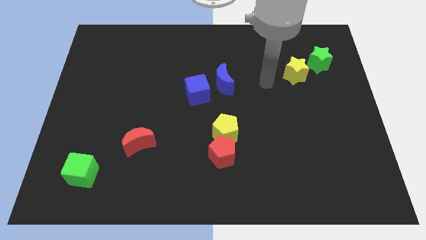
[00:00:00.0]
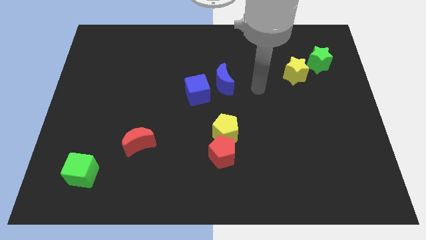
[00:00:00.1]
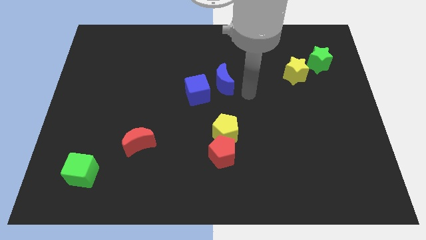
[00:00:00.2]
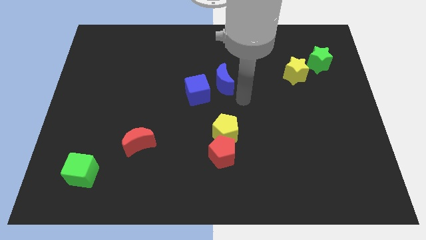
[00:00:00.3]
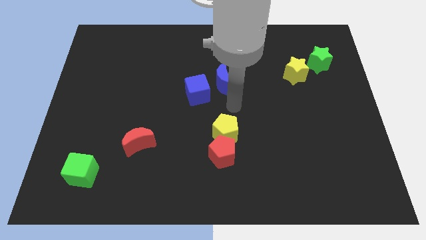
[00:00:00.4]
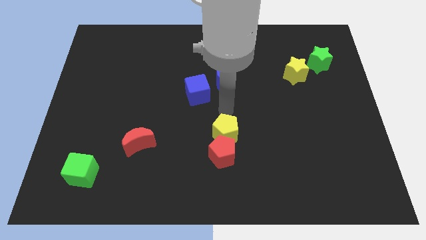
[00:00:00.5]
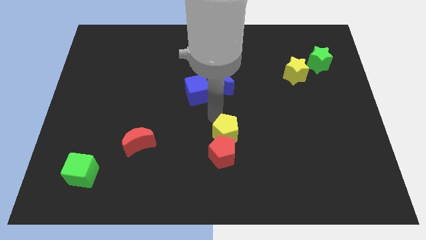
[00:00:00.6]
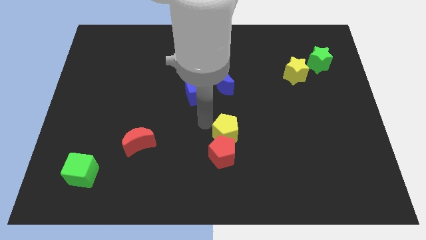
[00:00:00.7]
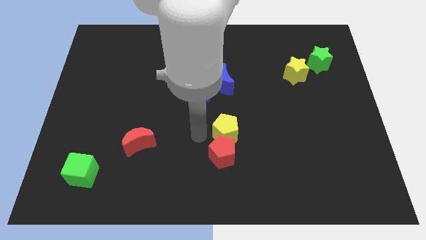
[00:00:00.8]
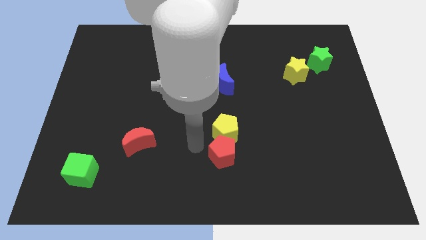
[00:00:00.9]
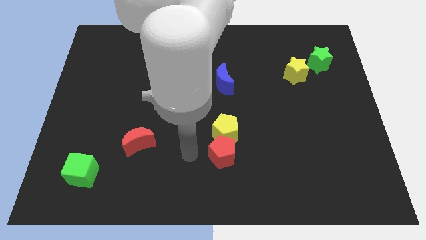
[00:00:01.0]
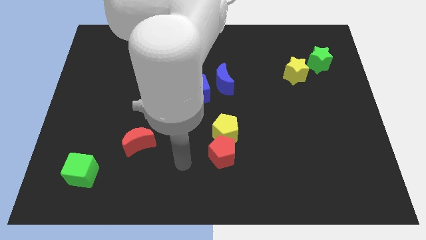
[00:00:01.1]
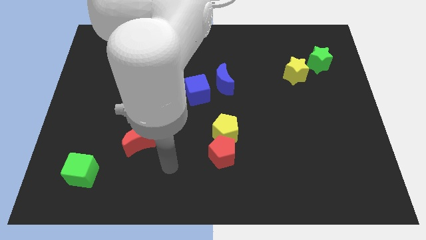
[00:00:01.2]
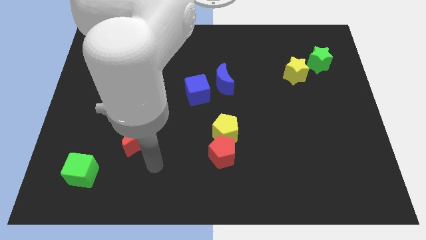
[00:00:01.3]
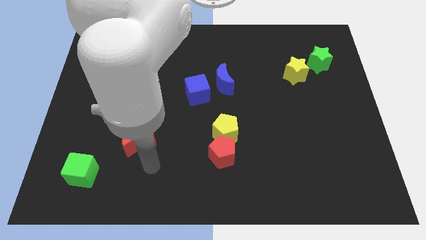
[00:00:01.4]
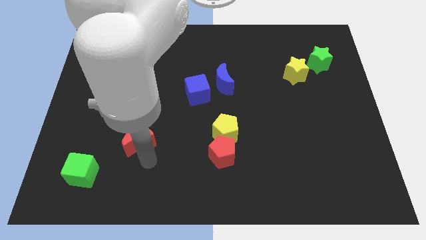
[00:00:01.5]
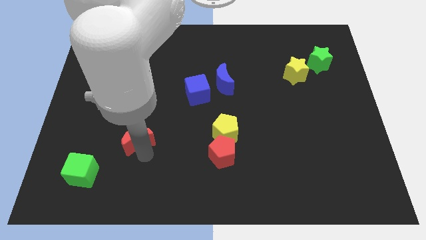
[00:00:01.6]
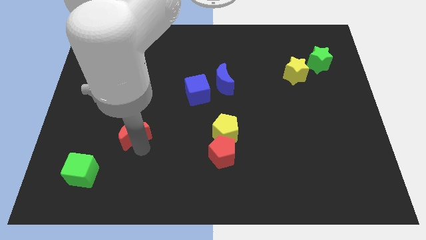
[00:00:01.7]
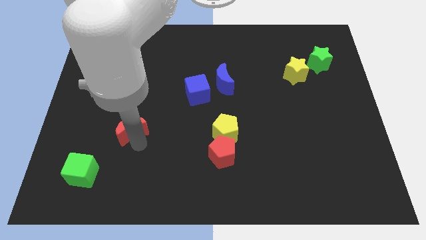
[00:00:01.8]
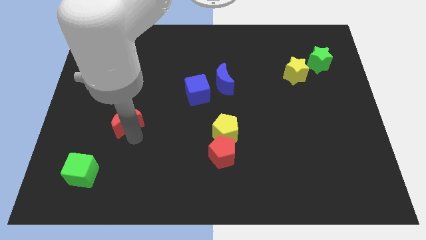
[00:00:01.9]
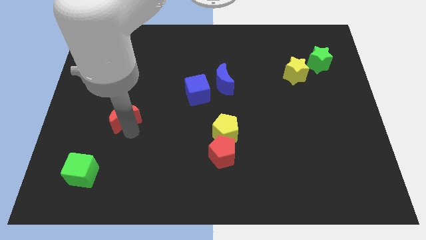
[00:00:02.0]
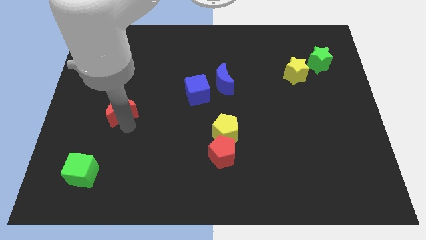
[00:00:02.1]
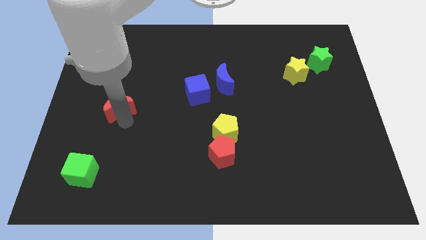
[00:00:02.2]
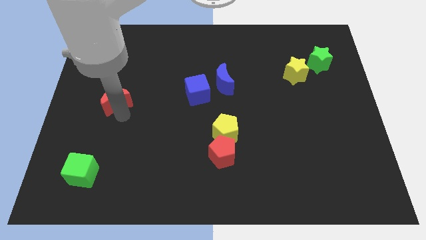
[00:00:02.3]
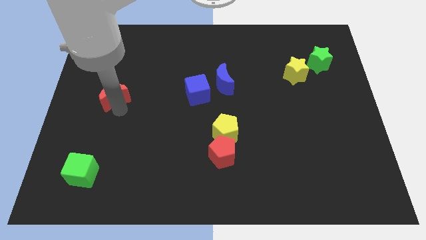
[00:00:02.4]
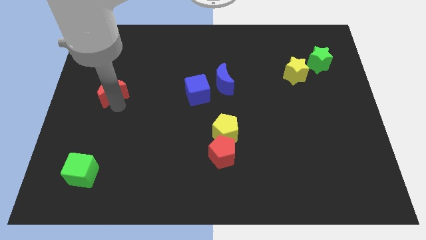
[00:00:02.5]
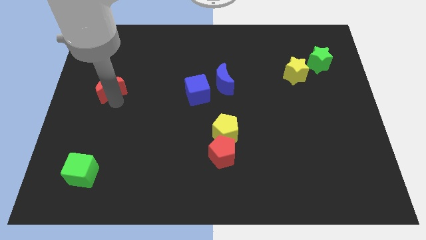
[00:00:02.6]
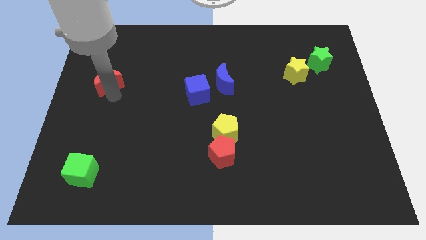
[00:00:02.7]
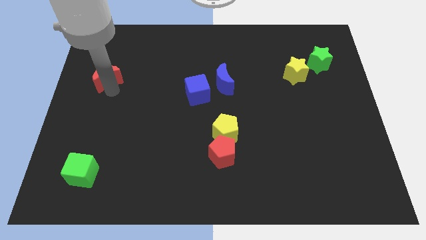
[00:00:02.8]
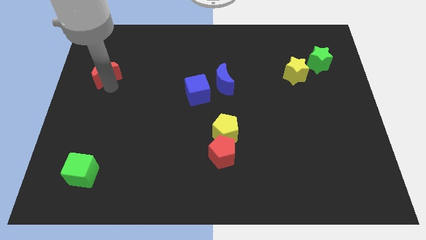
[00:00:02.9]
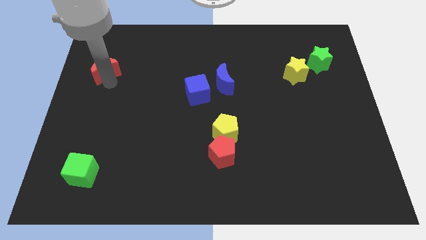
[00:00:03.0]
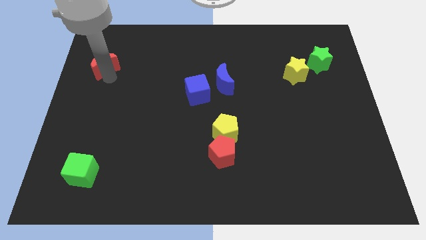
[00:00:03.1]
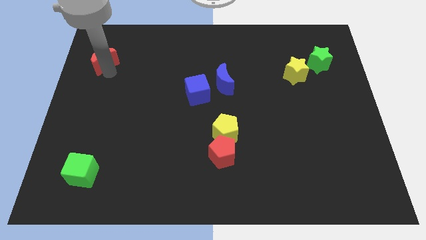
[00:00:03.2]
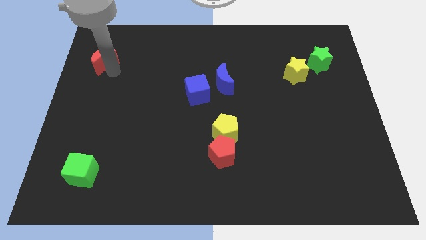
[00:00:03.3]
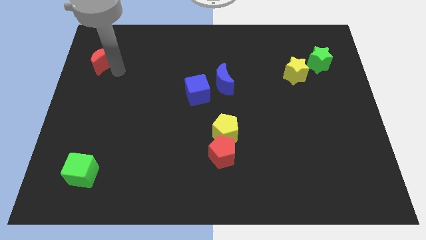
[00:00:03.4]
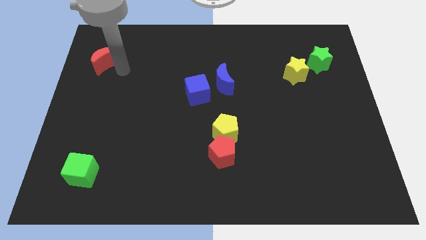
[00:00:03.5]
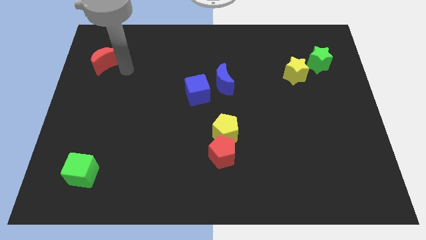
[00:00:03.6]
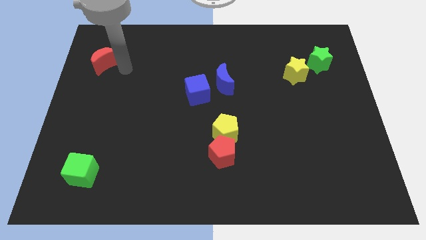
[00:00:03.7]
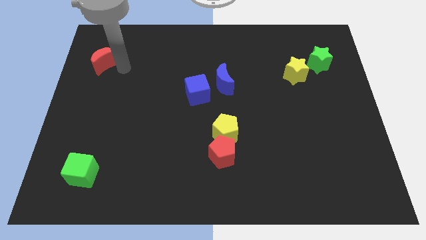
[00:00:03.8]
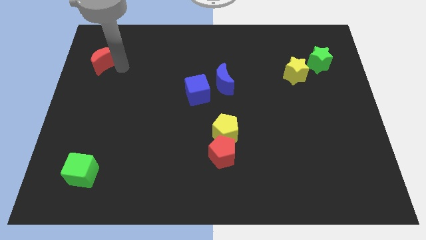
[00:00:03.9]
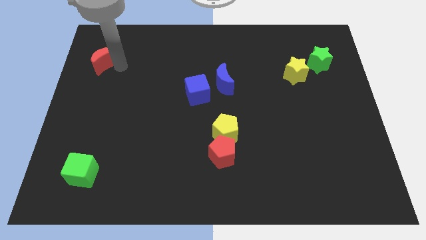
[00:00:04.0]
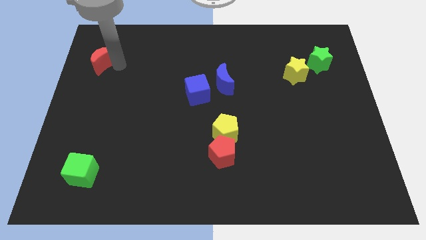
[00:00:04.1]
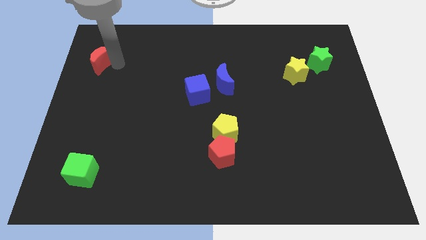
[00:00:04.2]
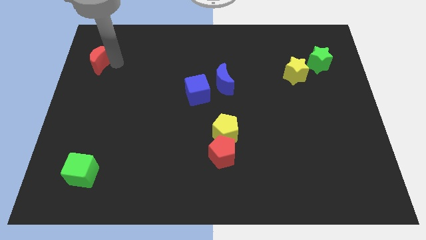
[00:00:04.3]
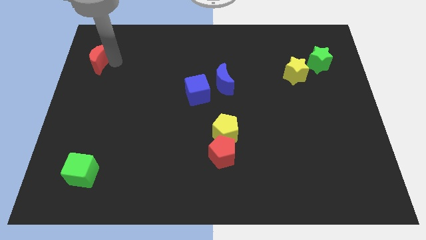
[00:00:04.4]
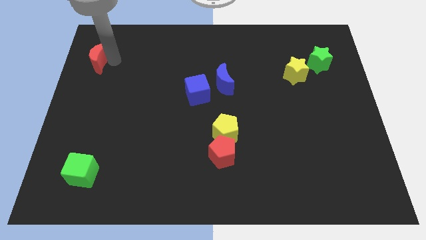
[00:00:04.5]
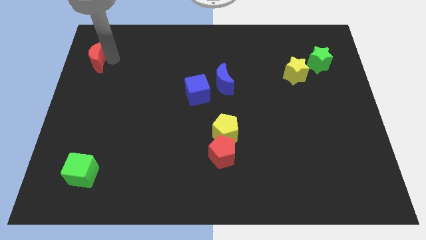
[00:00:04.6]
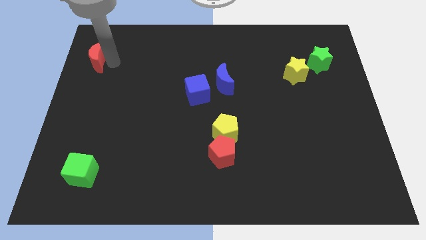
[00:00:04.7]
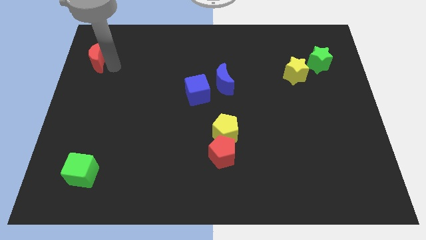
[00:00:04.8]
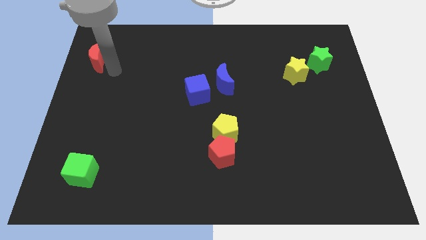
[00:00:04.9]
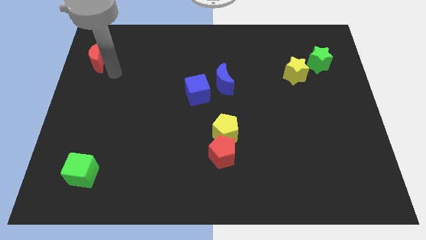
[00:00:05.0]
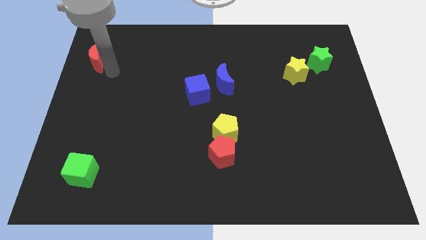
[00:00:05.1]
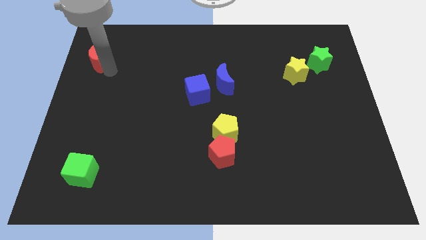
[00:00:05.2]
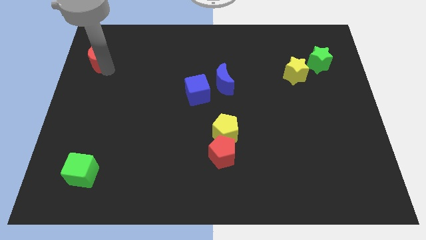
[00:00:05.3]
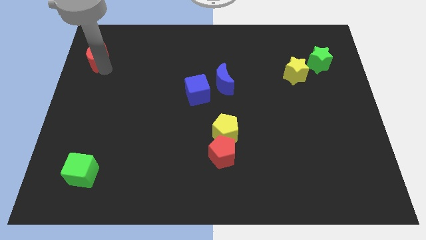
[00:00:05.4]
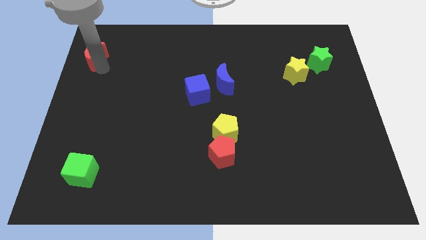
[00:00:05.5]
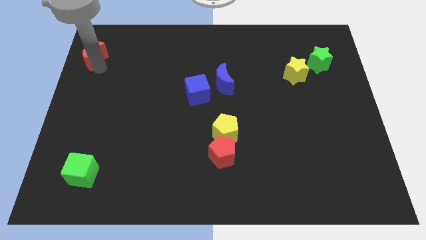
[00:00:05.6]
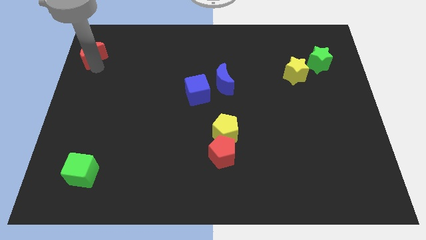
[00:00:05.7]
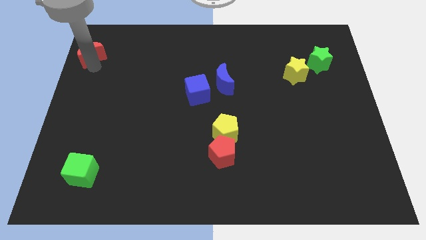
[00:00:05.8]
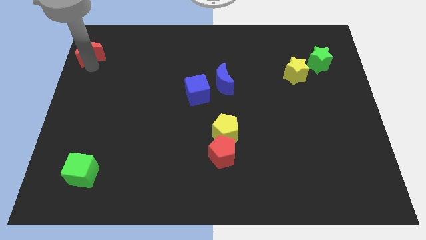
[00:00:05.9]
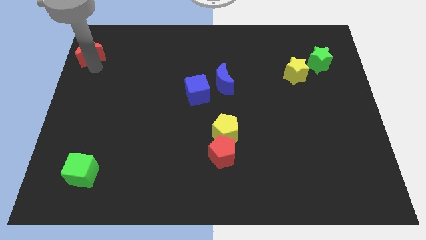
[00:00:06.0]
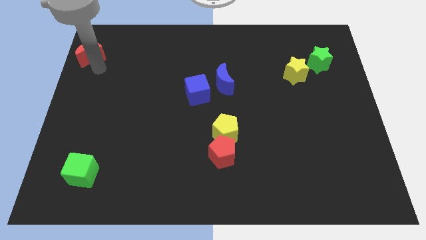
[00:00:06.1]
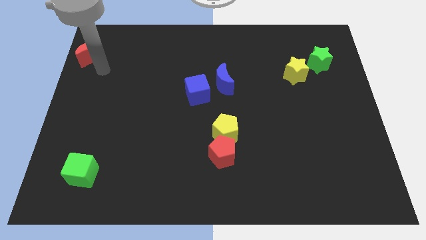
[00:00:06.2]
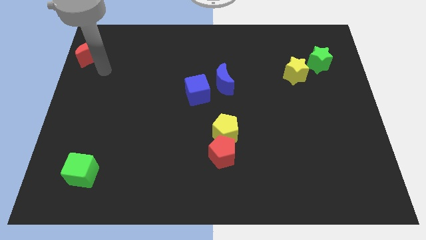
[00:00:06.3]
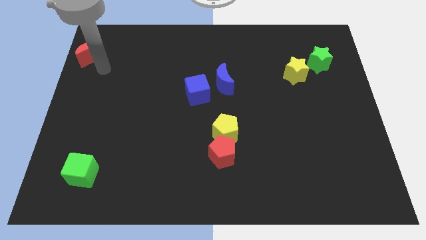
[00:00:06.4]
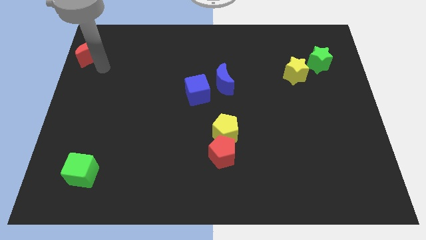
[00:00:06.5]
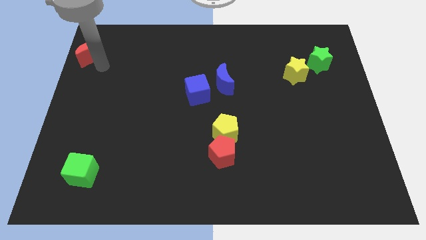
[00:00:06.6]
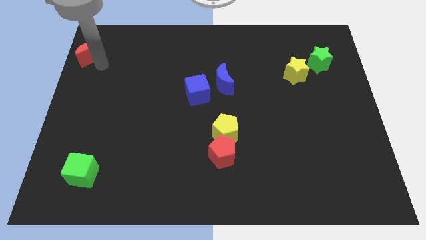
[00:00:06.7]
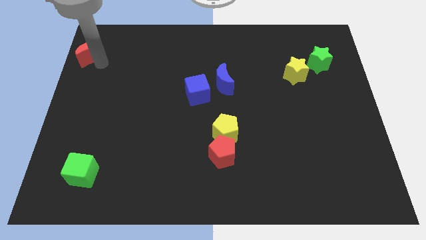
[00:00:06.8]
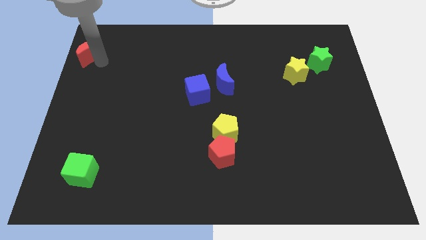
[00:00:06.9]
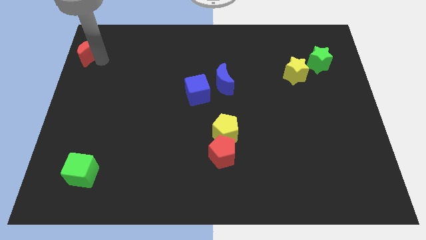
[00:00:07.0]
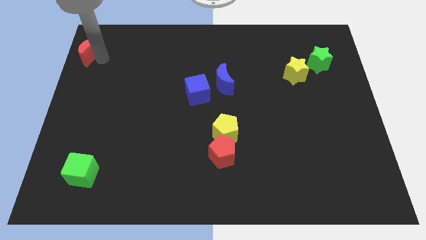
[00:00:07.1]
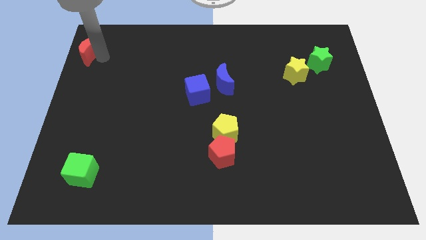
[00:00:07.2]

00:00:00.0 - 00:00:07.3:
put the red moon to the top left corner
